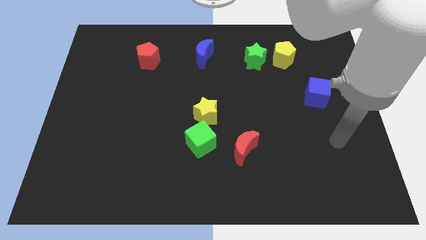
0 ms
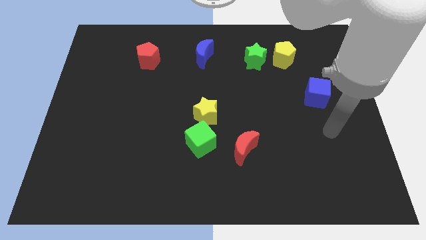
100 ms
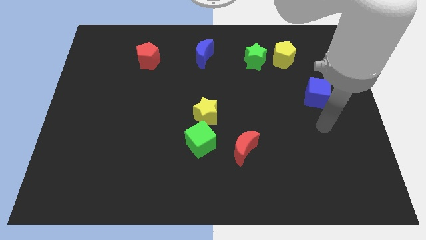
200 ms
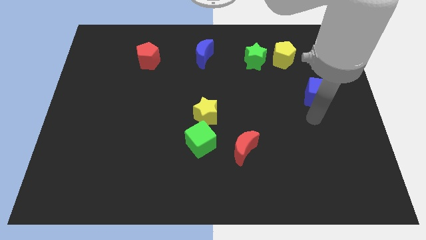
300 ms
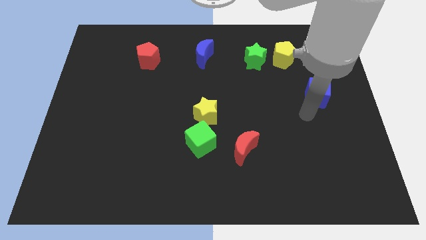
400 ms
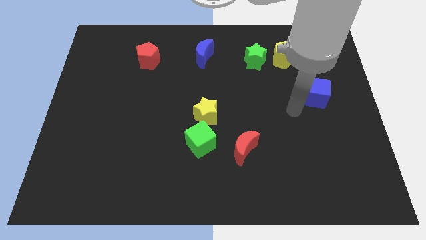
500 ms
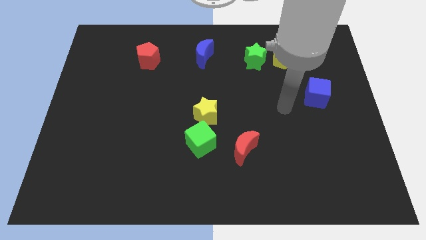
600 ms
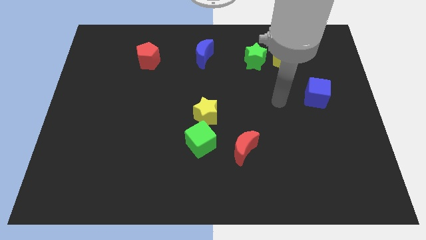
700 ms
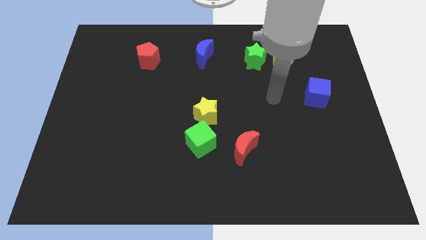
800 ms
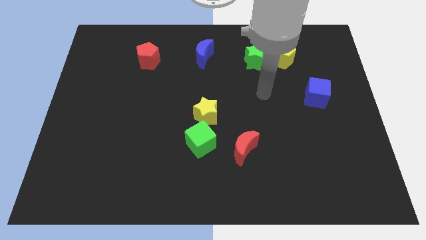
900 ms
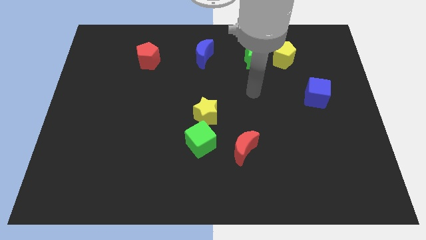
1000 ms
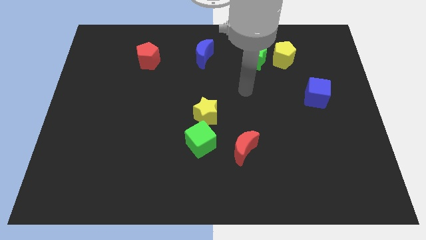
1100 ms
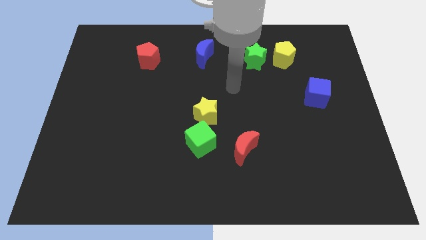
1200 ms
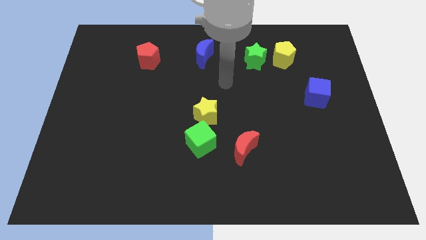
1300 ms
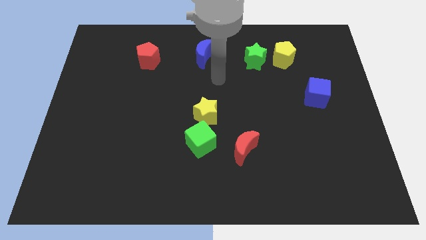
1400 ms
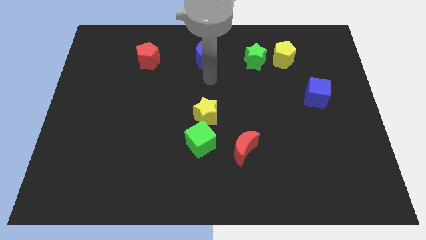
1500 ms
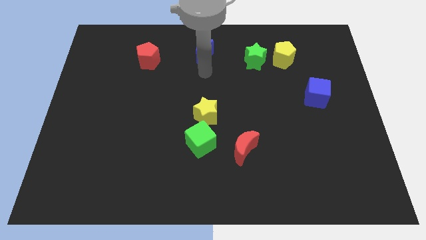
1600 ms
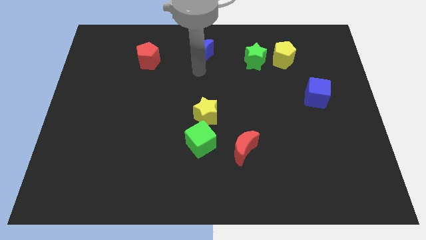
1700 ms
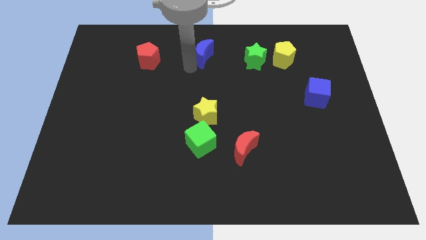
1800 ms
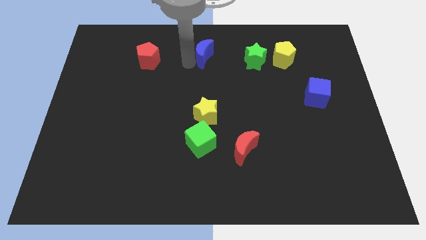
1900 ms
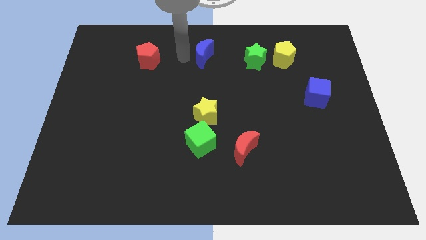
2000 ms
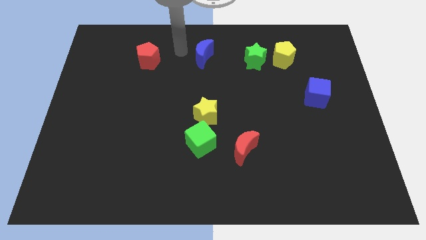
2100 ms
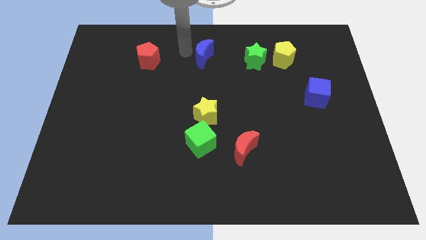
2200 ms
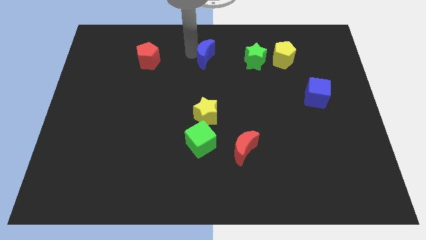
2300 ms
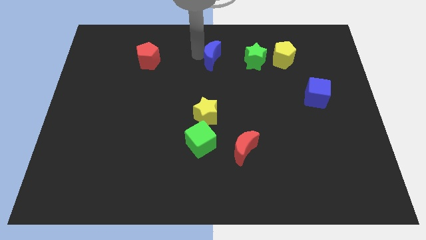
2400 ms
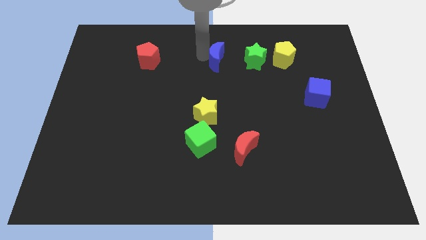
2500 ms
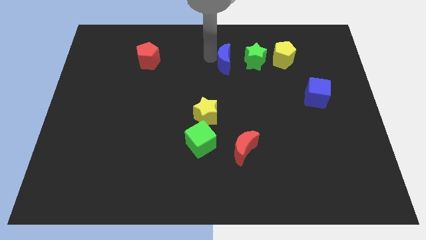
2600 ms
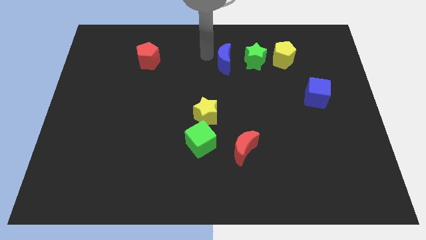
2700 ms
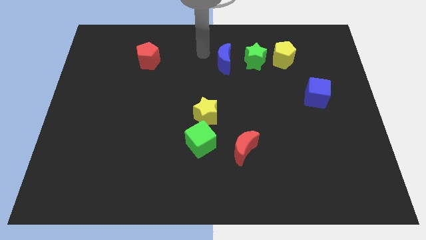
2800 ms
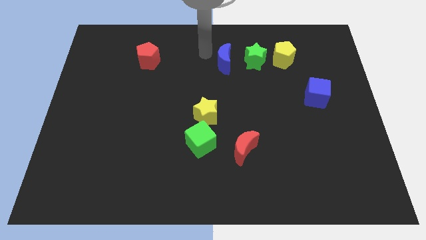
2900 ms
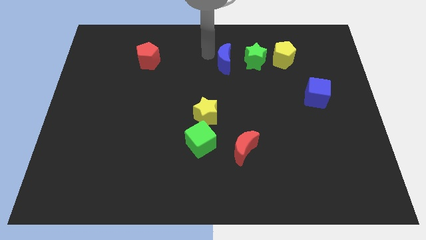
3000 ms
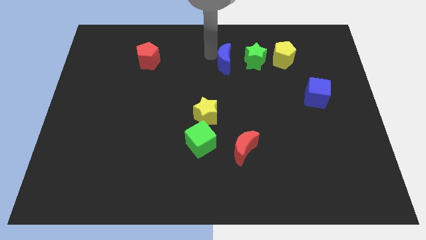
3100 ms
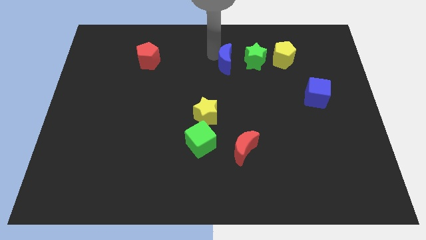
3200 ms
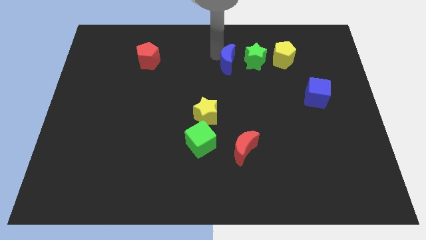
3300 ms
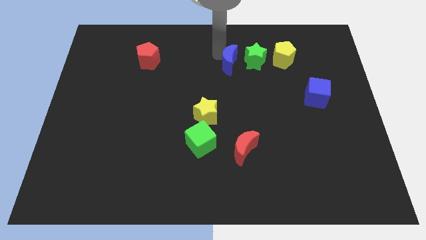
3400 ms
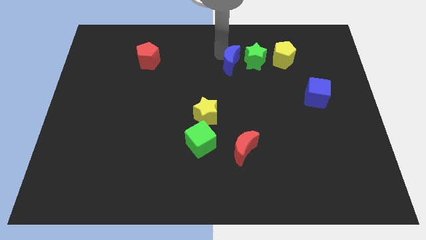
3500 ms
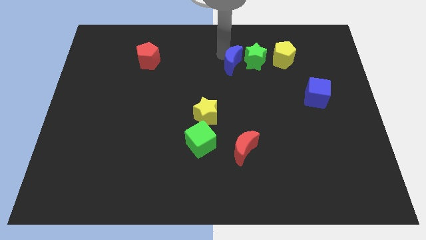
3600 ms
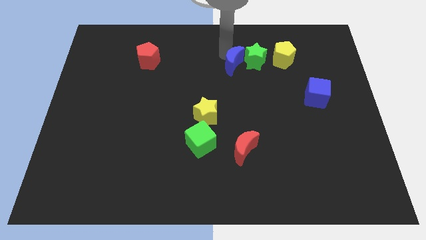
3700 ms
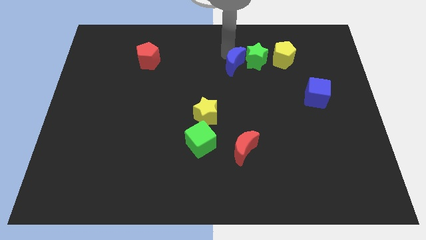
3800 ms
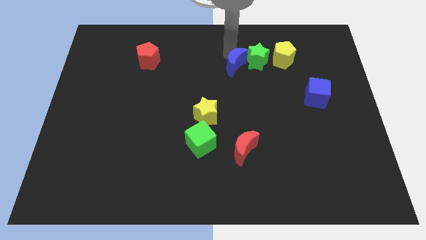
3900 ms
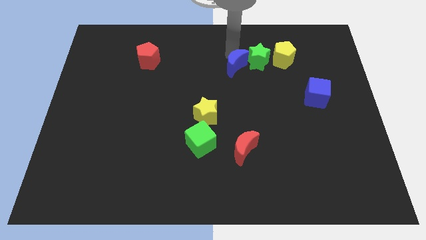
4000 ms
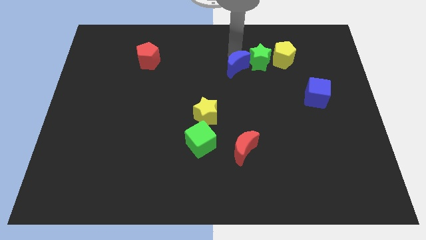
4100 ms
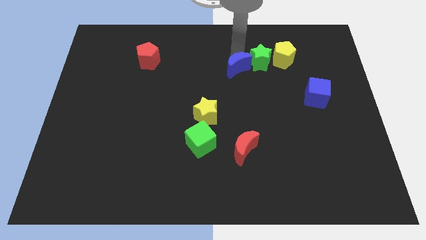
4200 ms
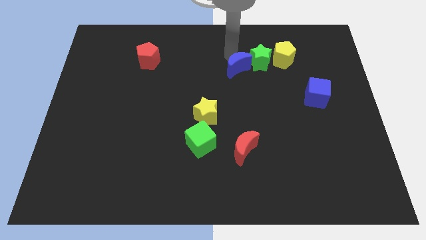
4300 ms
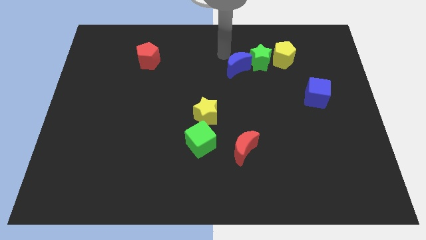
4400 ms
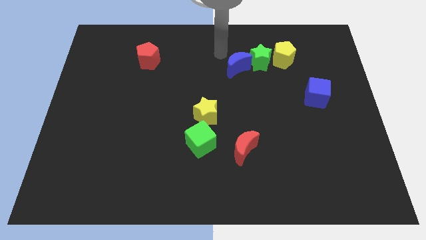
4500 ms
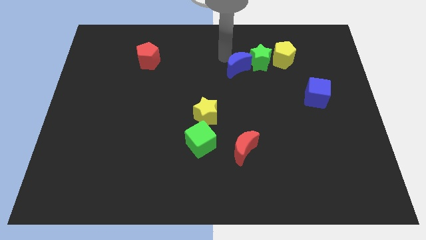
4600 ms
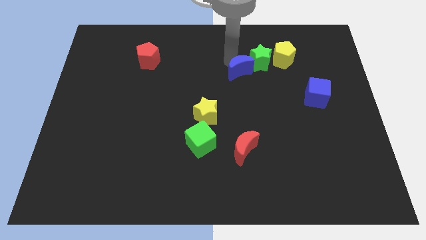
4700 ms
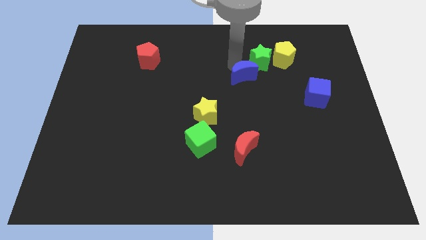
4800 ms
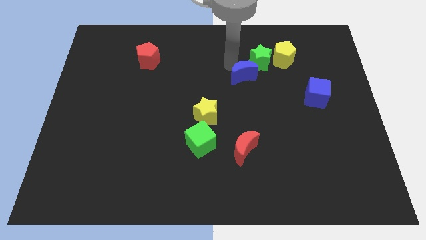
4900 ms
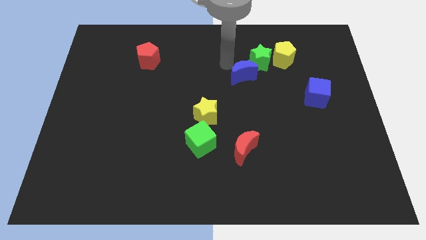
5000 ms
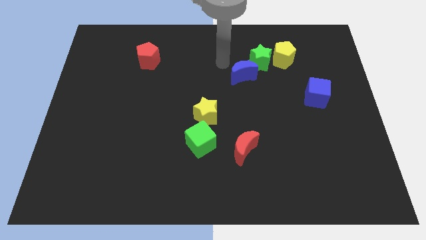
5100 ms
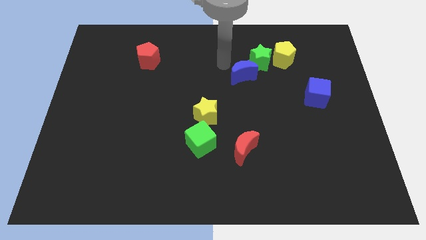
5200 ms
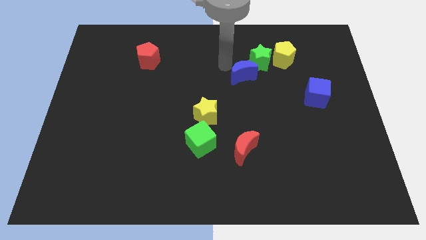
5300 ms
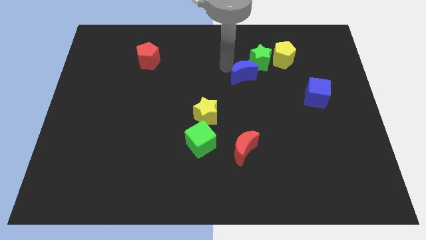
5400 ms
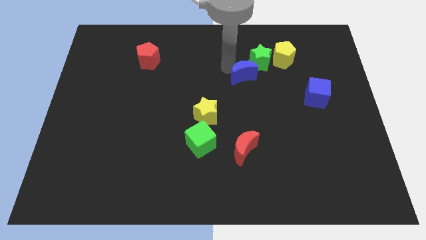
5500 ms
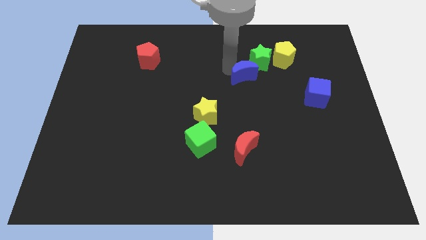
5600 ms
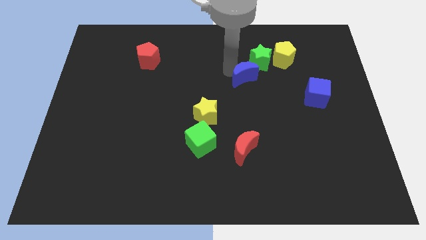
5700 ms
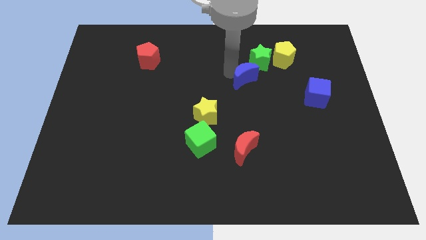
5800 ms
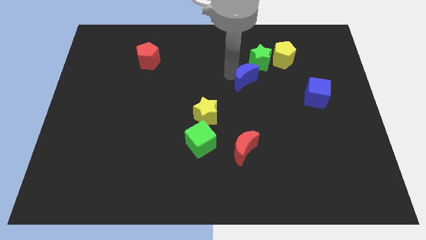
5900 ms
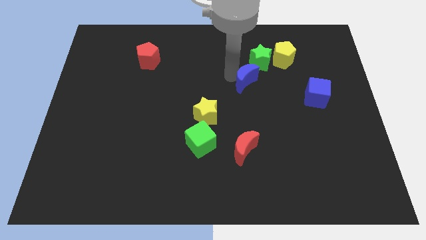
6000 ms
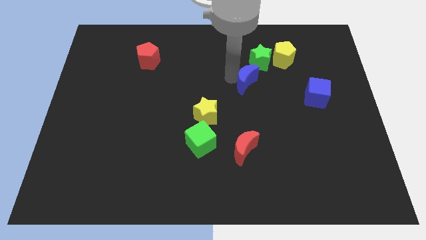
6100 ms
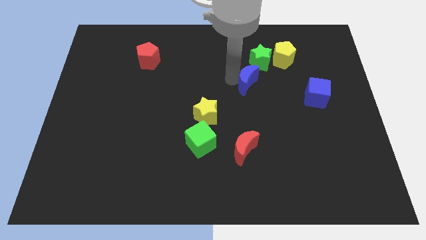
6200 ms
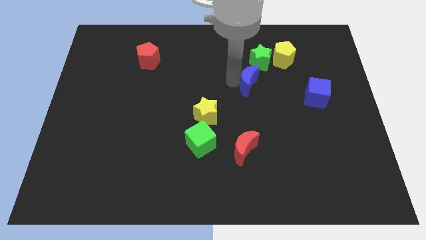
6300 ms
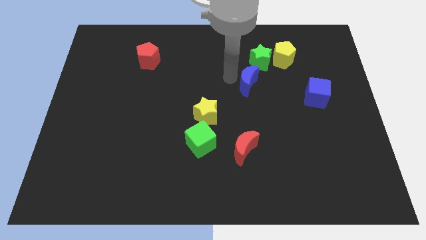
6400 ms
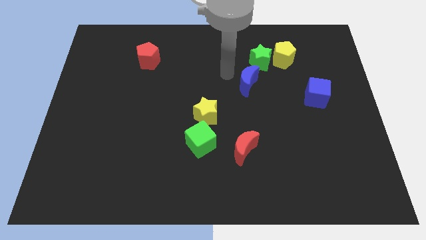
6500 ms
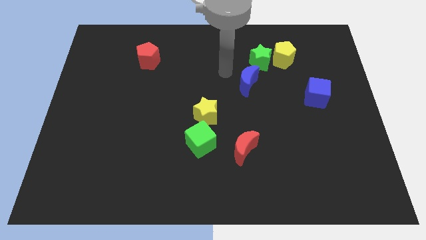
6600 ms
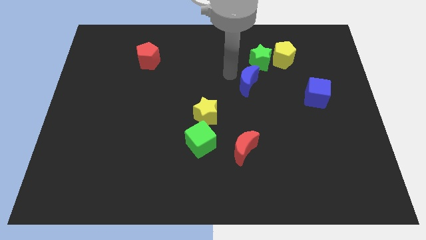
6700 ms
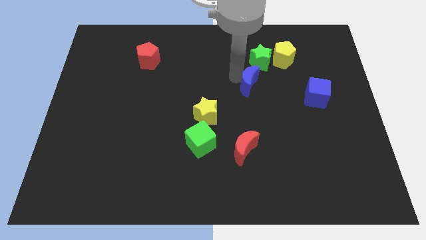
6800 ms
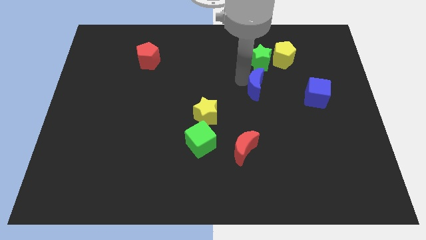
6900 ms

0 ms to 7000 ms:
slide the blue moon left of the blue cube
